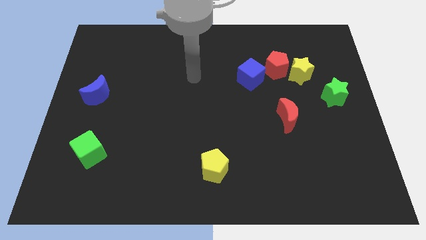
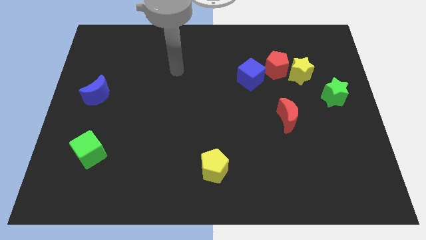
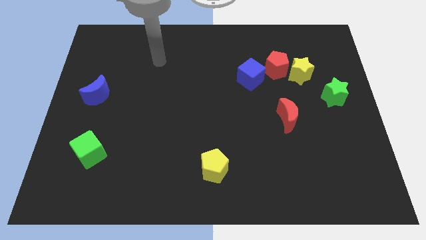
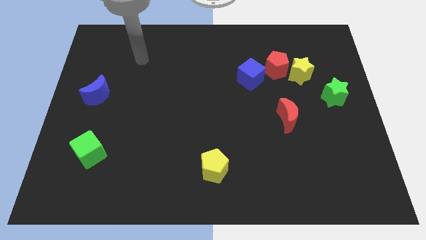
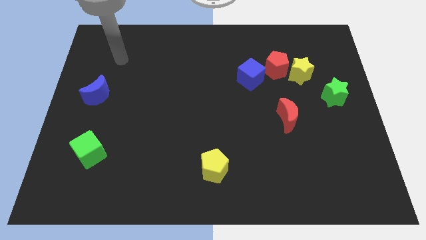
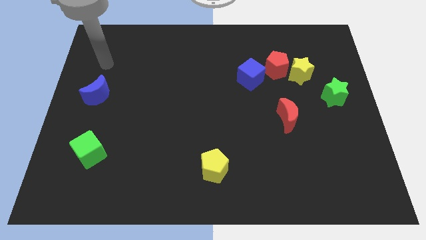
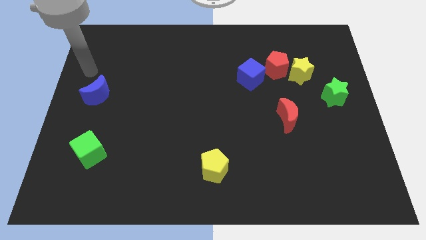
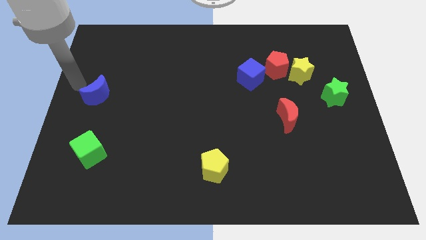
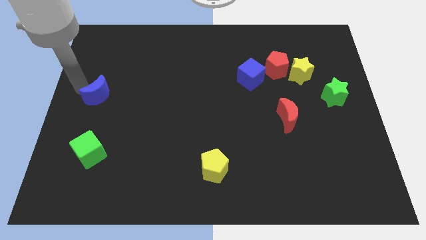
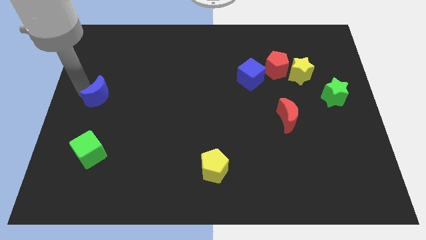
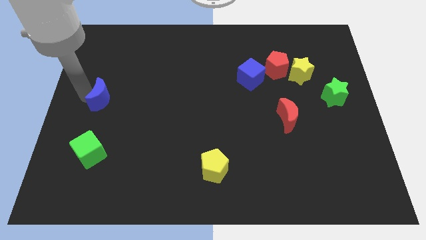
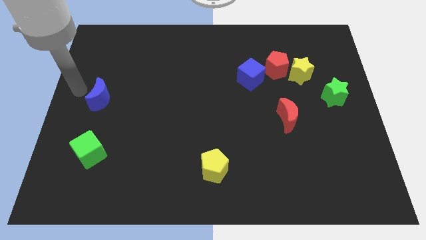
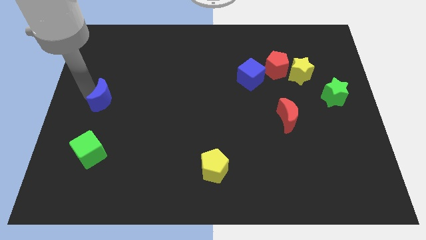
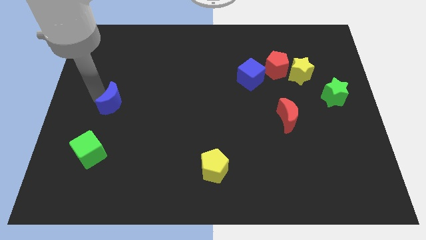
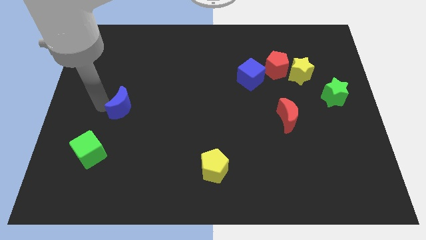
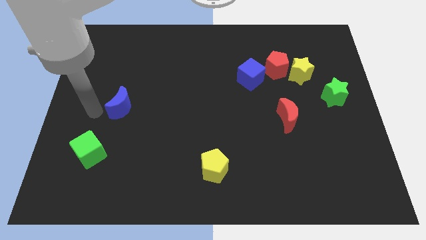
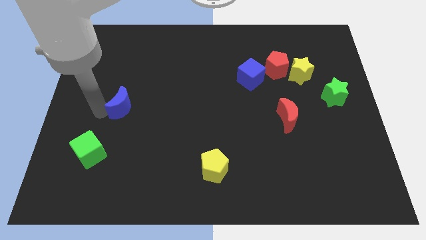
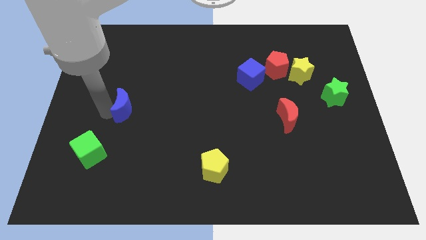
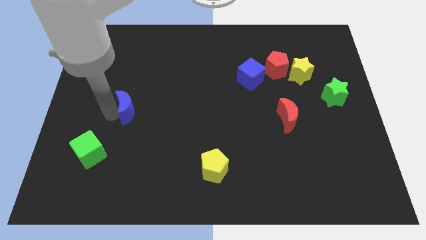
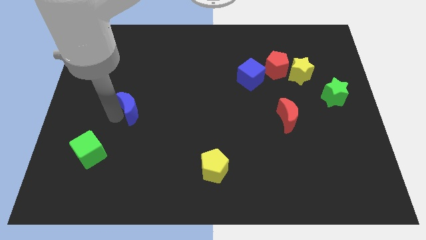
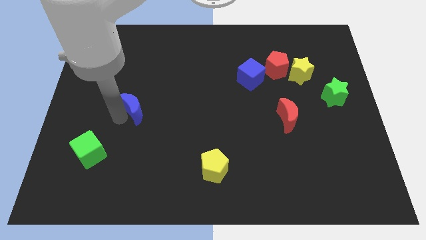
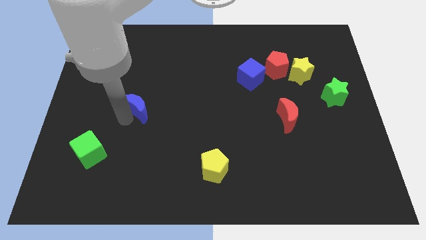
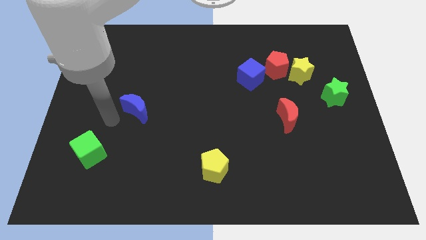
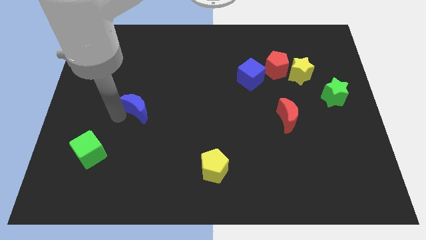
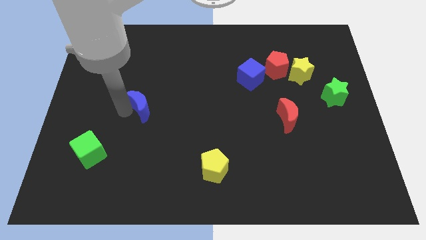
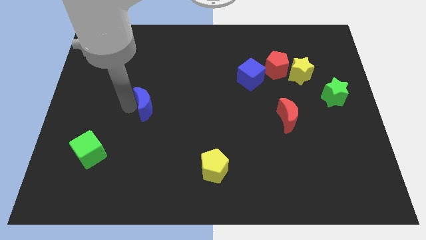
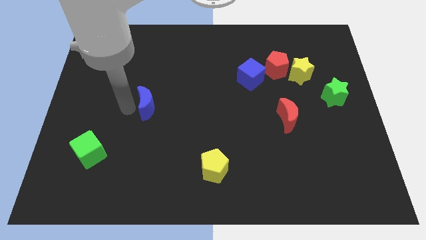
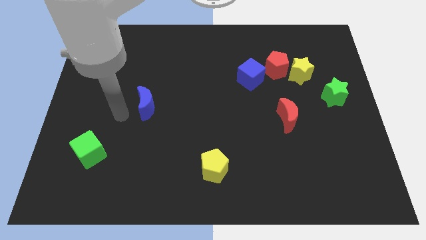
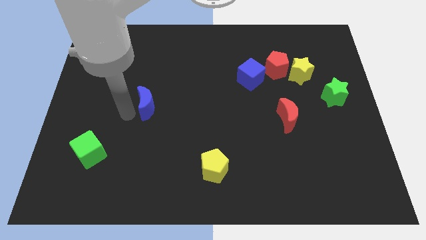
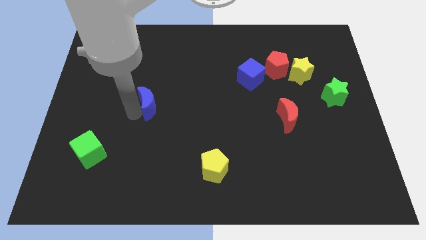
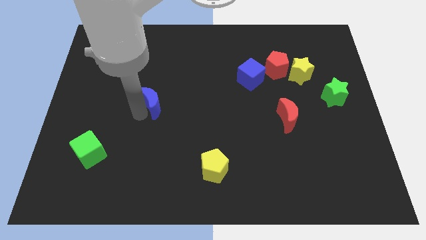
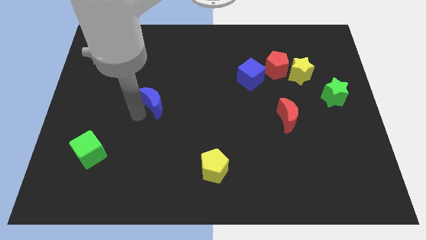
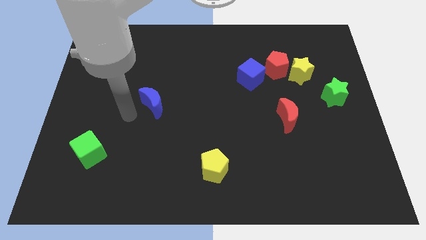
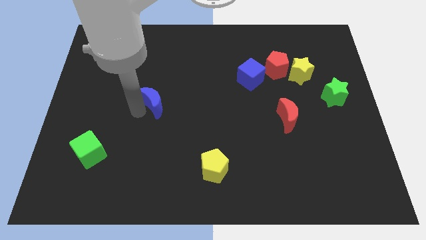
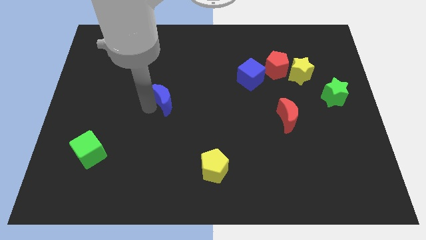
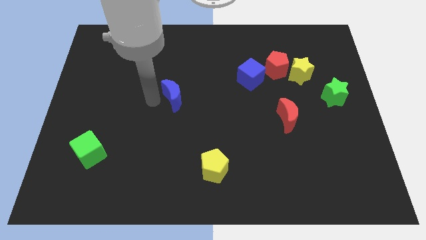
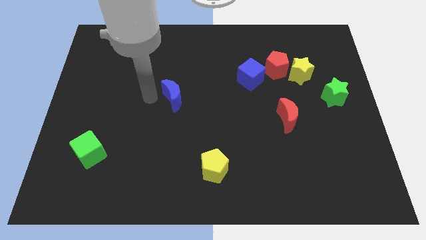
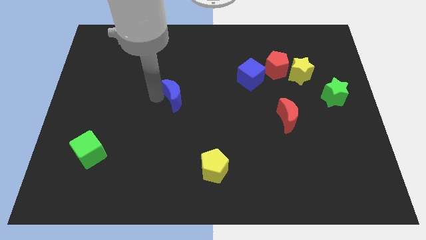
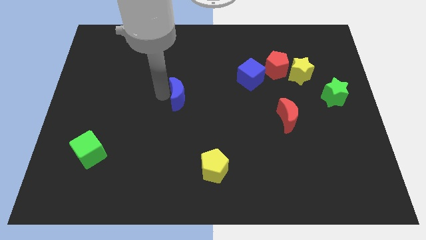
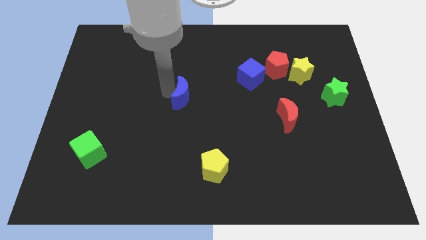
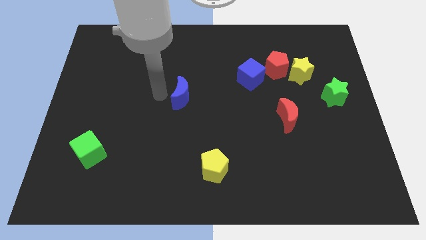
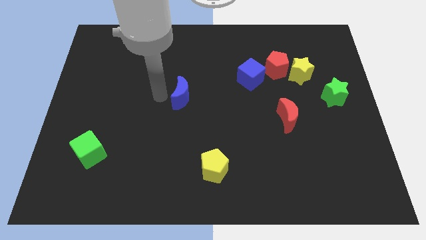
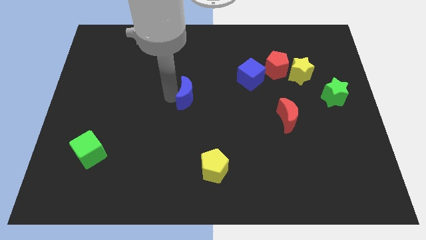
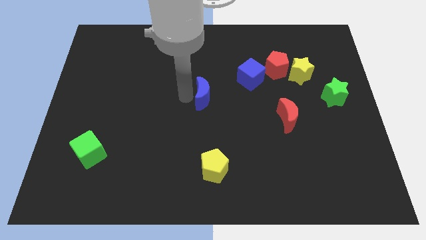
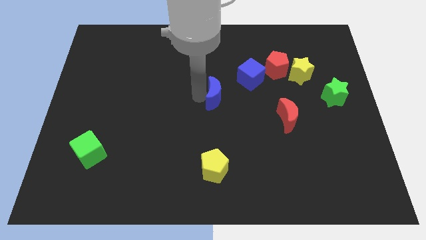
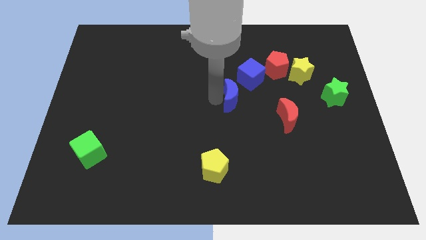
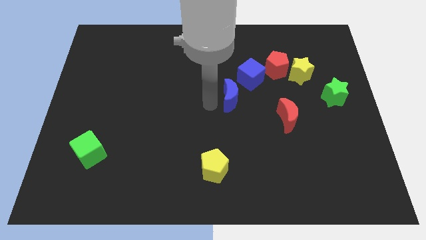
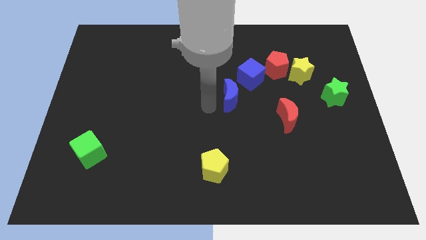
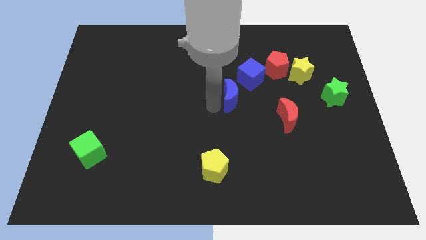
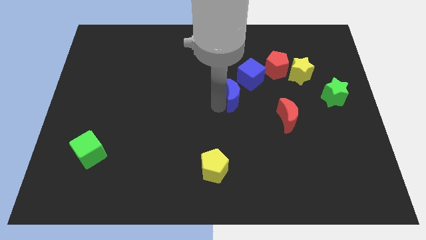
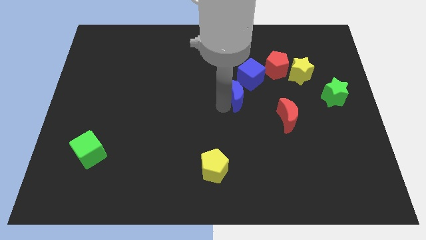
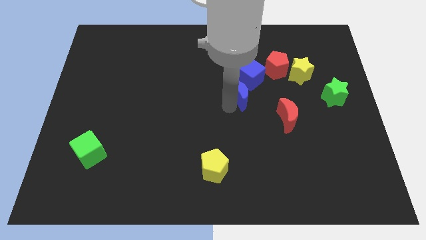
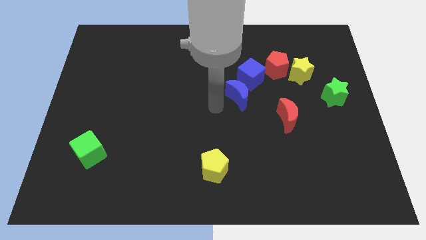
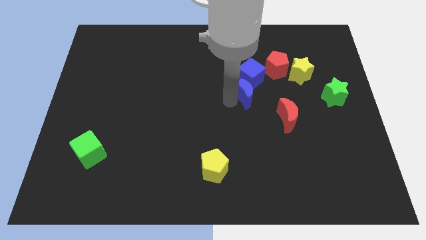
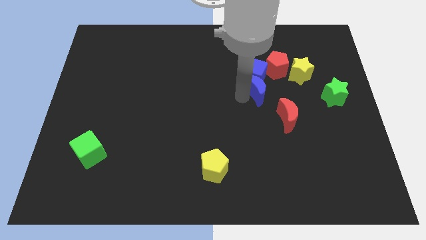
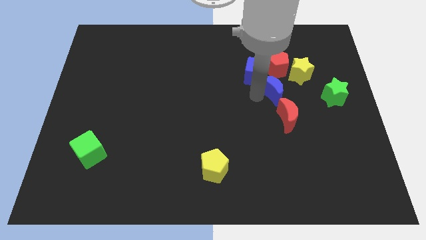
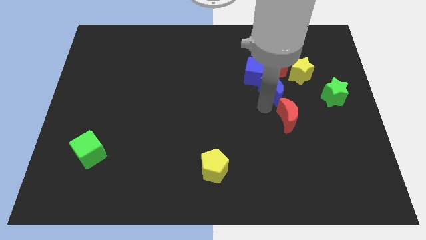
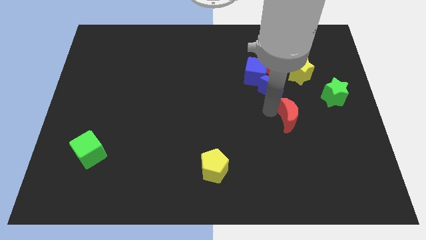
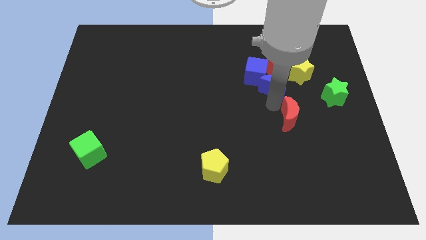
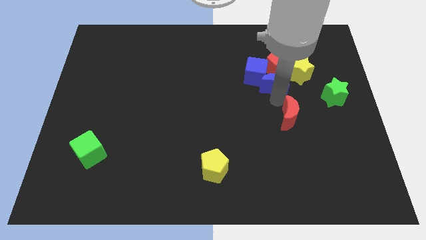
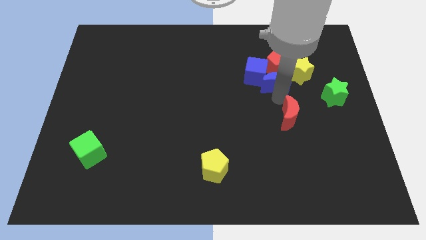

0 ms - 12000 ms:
slide the blue moon close to the red pentagon
